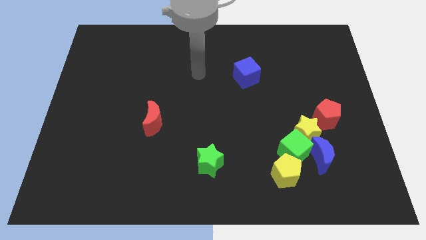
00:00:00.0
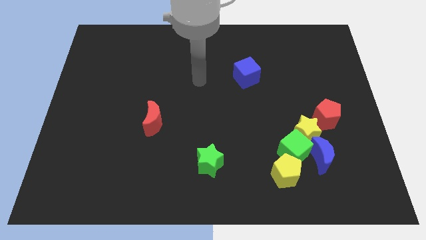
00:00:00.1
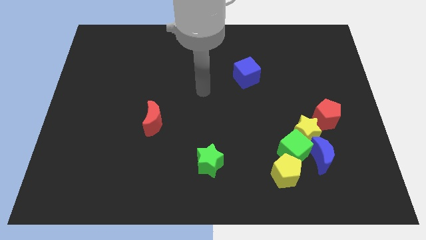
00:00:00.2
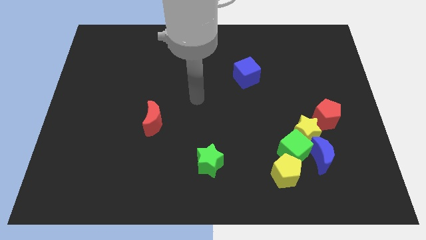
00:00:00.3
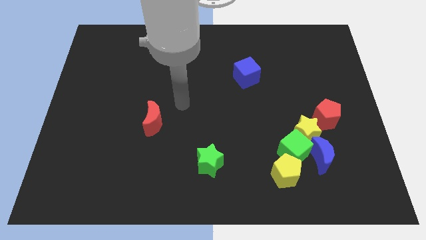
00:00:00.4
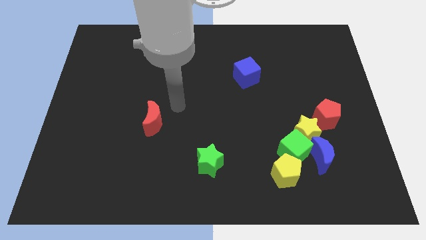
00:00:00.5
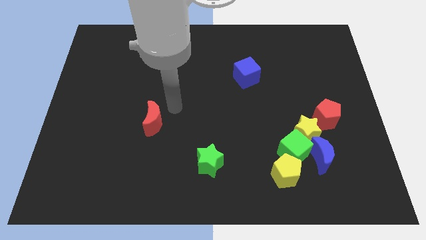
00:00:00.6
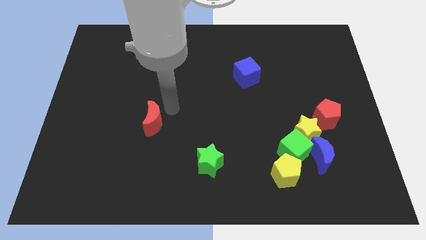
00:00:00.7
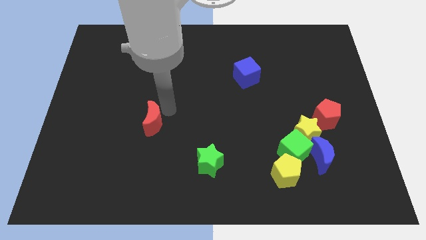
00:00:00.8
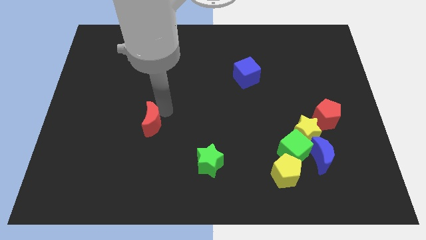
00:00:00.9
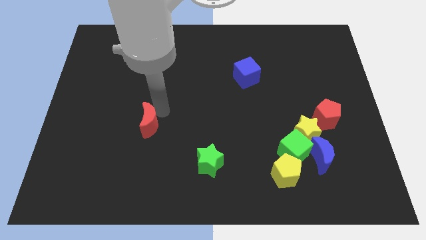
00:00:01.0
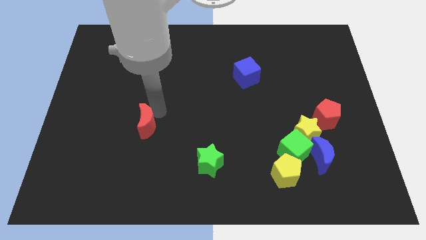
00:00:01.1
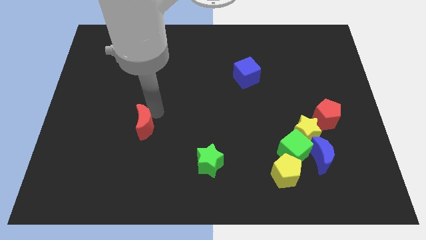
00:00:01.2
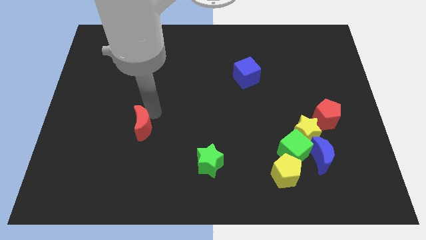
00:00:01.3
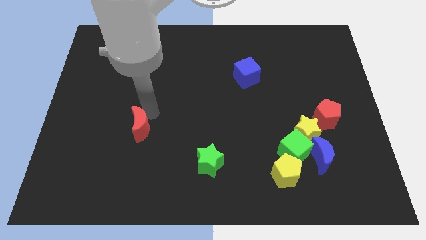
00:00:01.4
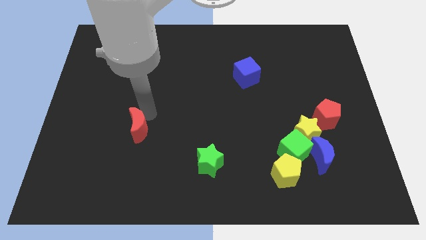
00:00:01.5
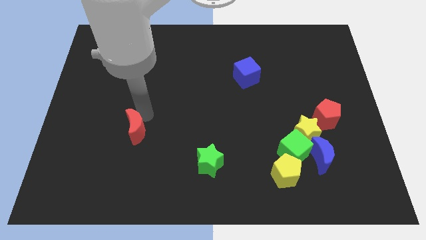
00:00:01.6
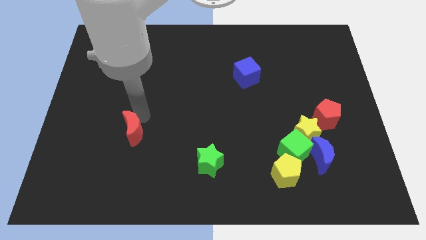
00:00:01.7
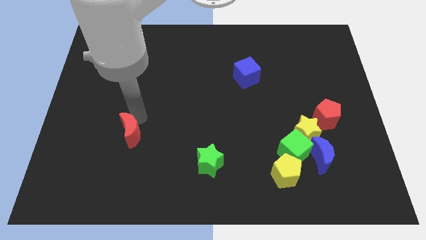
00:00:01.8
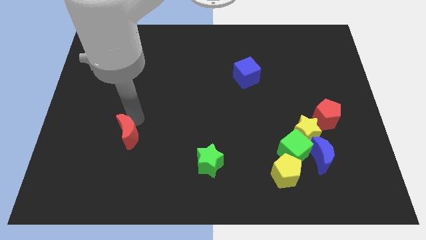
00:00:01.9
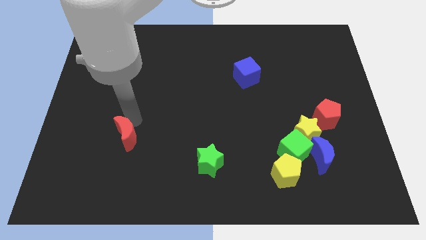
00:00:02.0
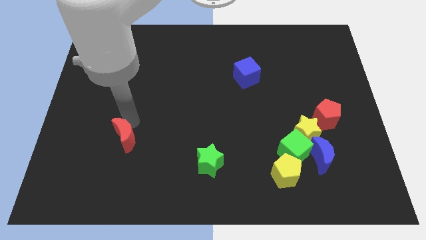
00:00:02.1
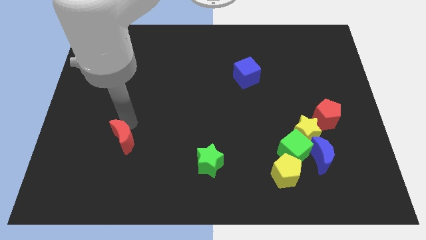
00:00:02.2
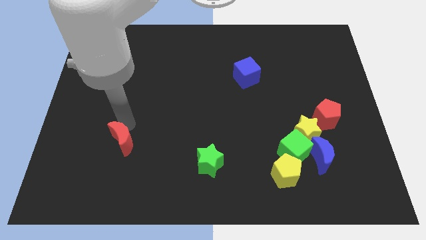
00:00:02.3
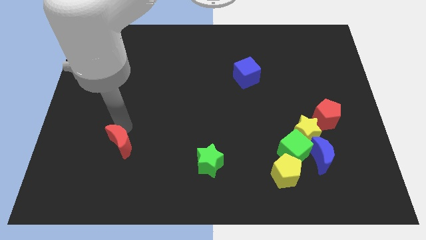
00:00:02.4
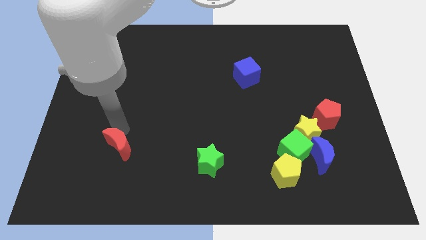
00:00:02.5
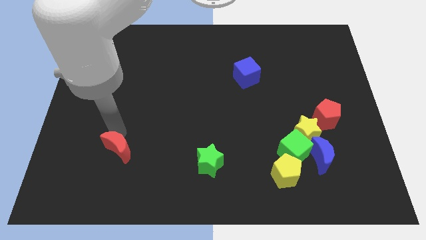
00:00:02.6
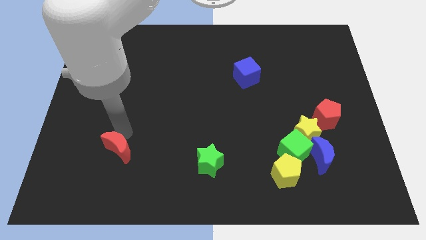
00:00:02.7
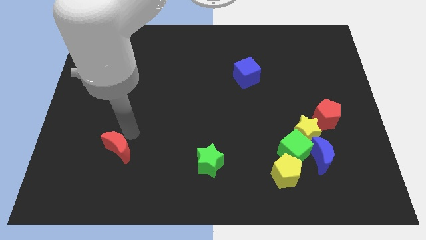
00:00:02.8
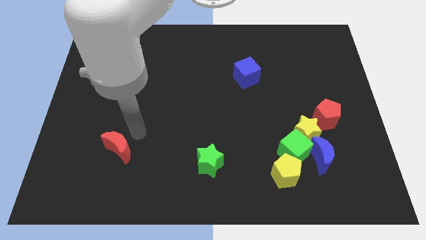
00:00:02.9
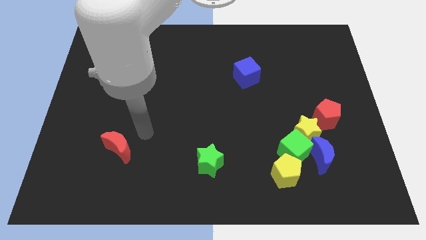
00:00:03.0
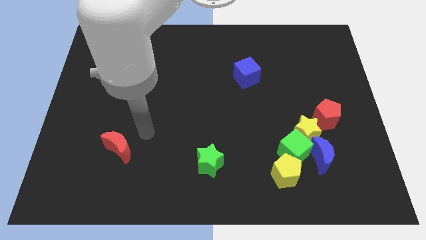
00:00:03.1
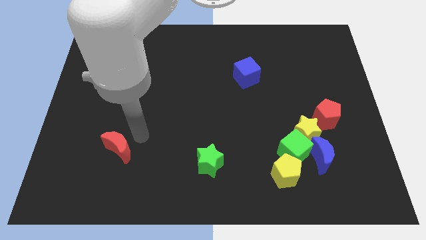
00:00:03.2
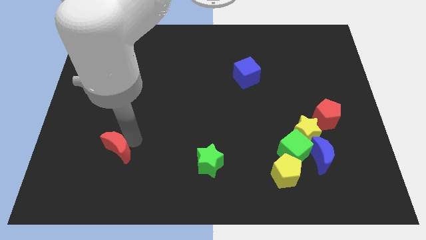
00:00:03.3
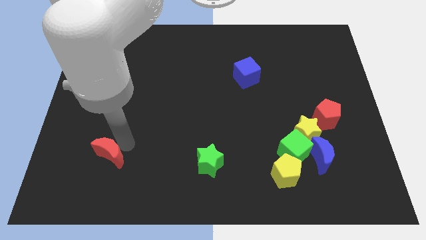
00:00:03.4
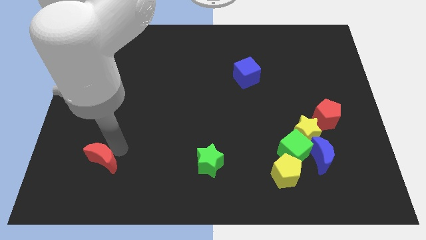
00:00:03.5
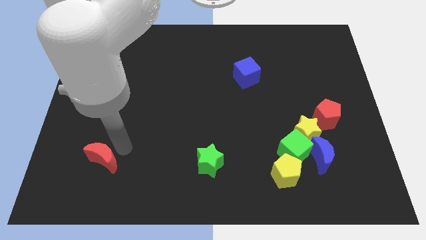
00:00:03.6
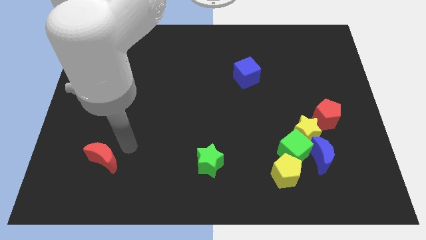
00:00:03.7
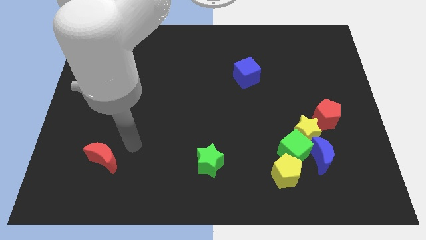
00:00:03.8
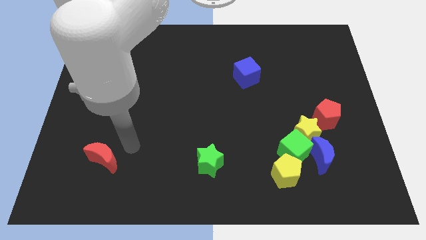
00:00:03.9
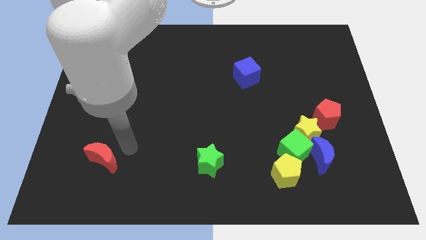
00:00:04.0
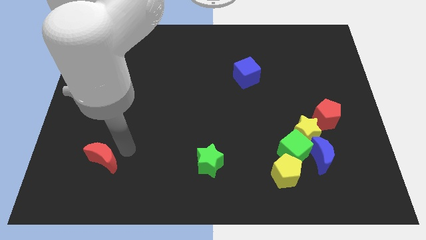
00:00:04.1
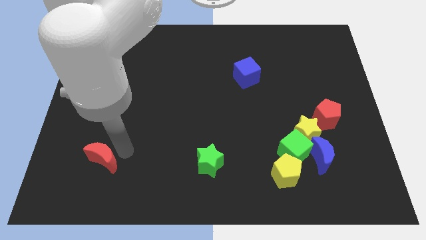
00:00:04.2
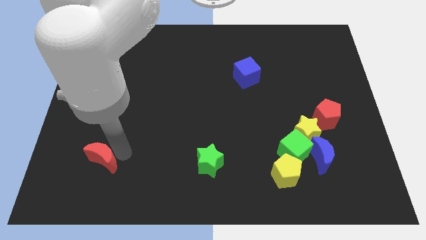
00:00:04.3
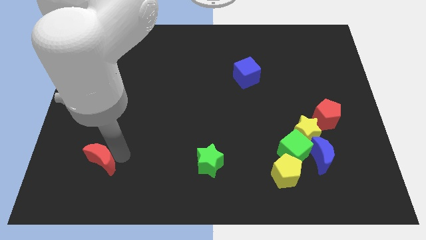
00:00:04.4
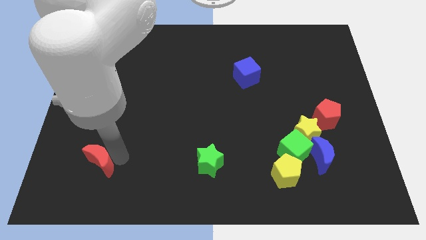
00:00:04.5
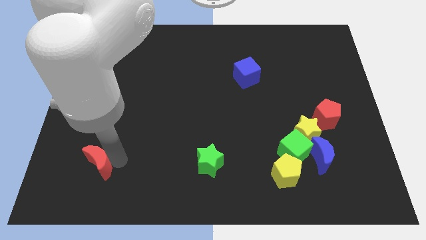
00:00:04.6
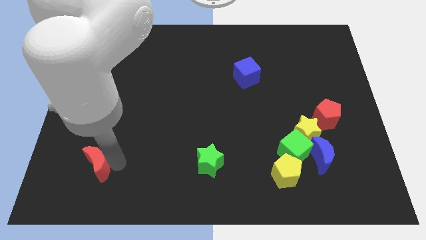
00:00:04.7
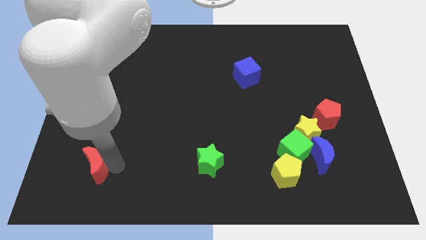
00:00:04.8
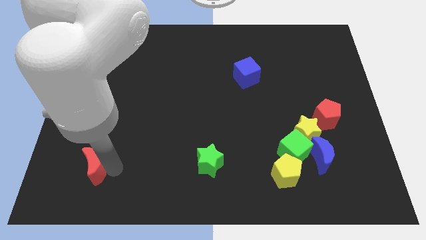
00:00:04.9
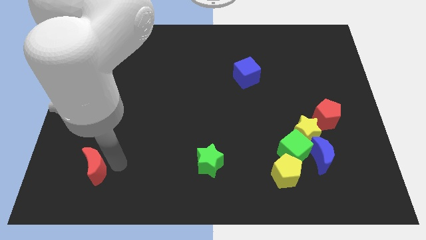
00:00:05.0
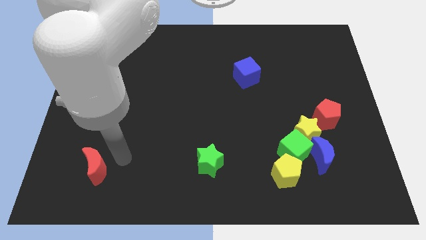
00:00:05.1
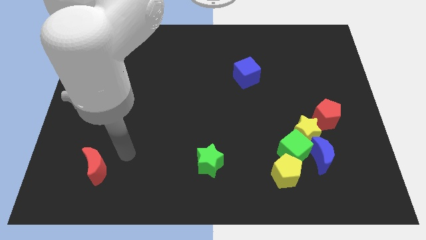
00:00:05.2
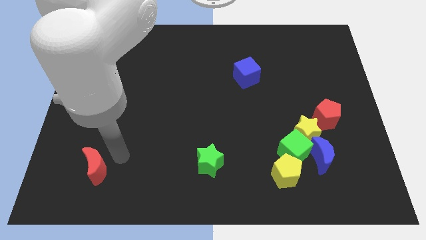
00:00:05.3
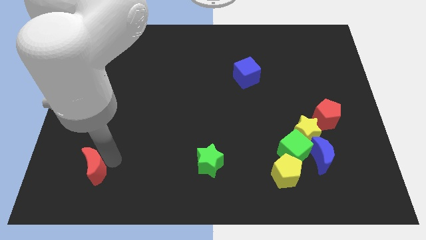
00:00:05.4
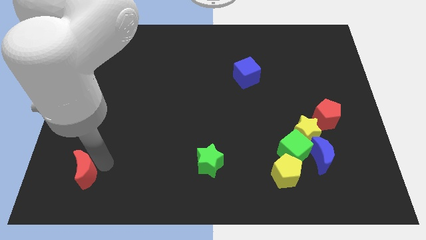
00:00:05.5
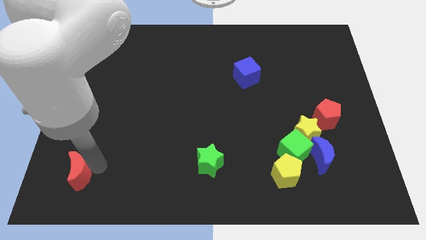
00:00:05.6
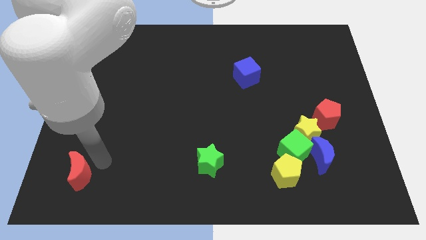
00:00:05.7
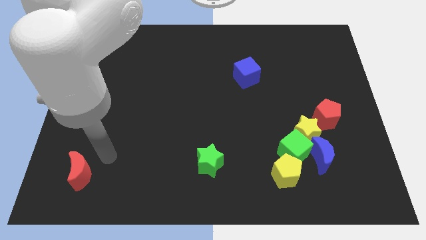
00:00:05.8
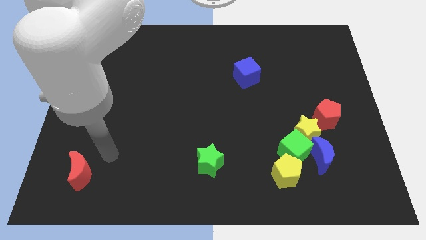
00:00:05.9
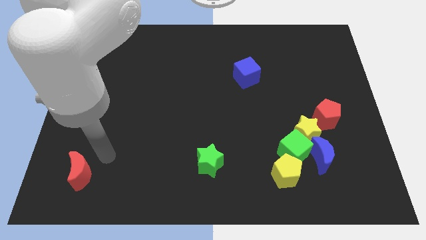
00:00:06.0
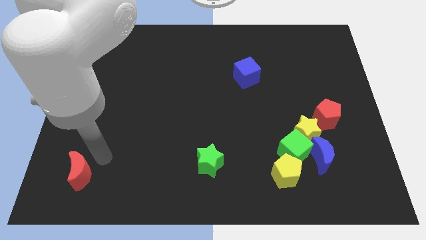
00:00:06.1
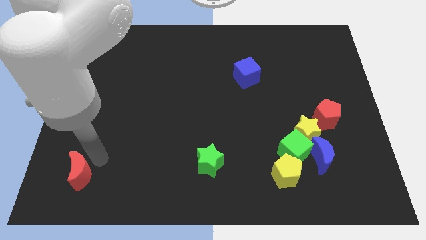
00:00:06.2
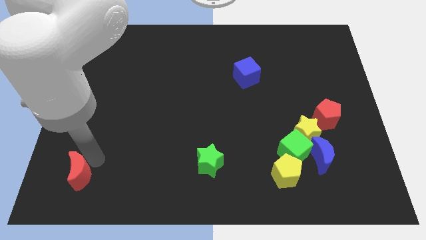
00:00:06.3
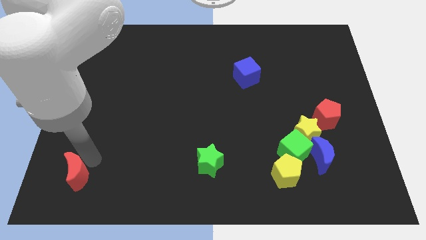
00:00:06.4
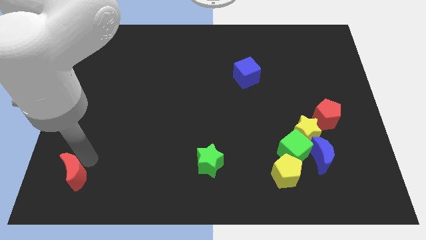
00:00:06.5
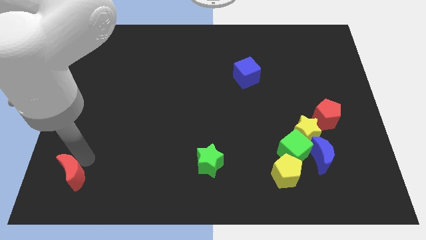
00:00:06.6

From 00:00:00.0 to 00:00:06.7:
put the red moon to the bottom left corner
